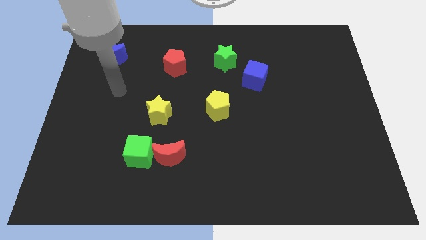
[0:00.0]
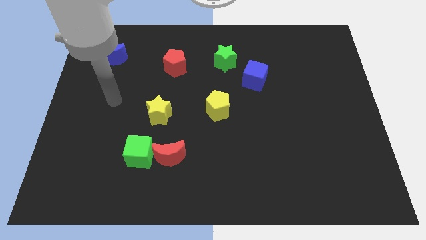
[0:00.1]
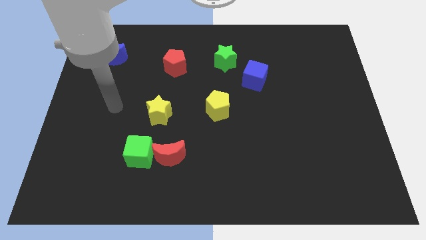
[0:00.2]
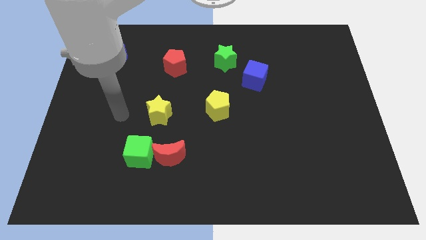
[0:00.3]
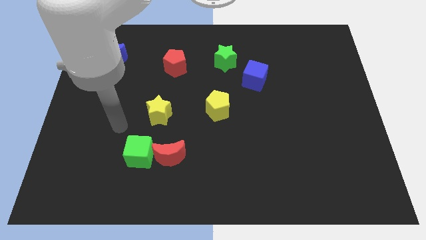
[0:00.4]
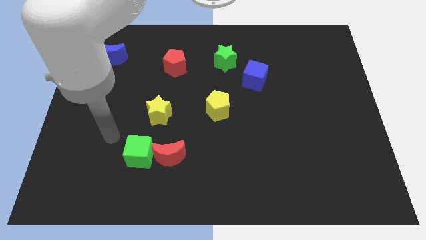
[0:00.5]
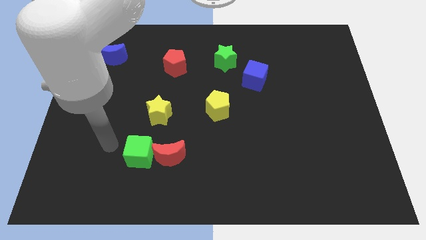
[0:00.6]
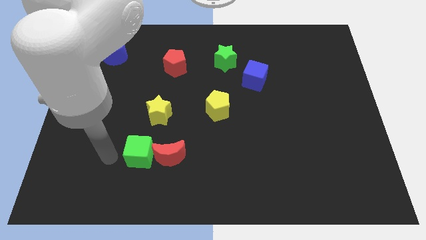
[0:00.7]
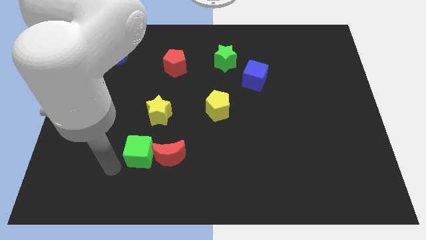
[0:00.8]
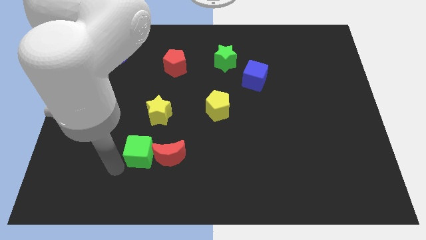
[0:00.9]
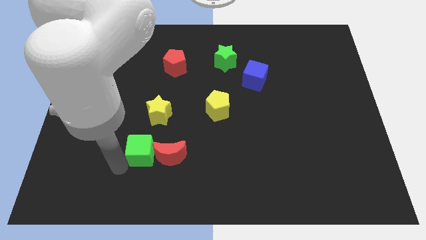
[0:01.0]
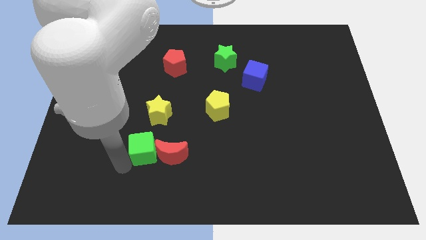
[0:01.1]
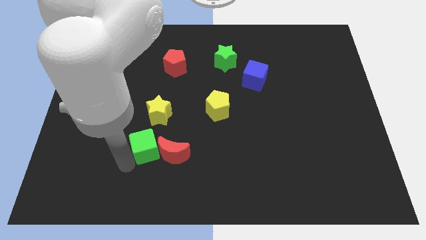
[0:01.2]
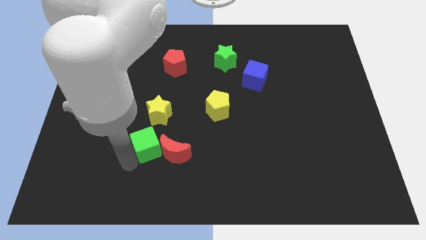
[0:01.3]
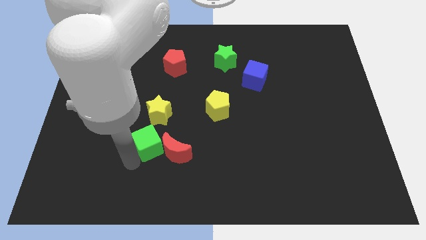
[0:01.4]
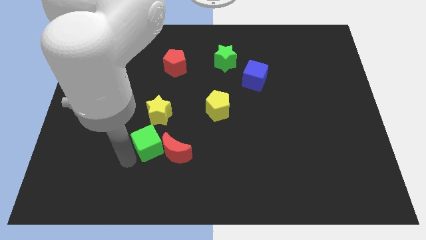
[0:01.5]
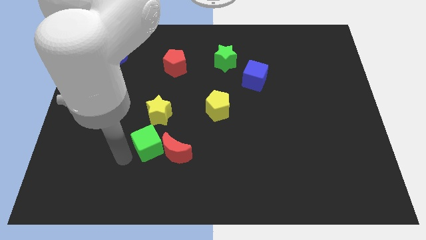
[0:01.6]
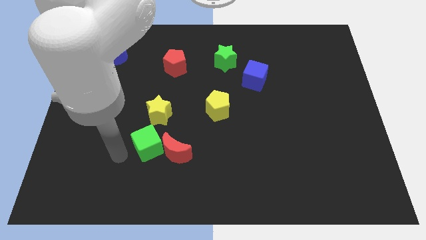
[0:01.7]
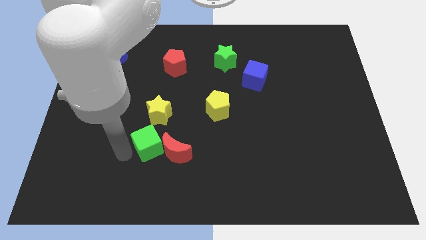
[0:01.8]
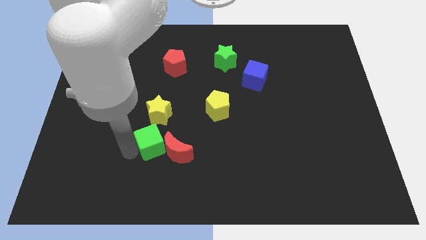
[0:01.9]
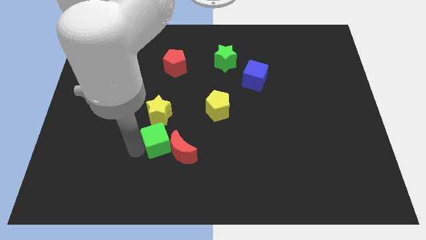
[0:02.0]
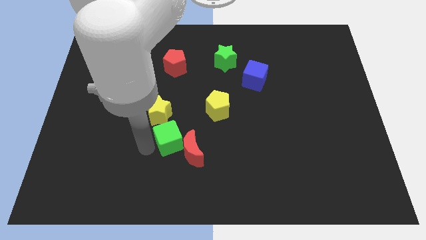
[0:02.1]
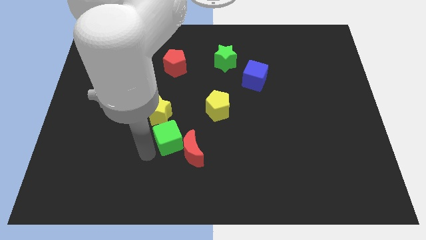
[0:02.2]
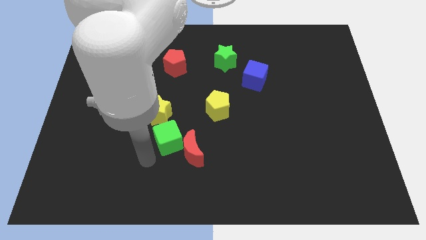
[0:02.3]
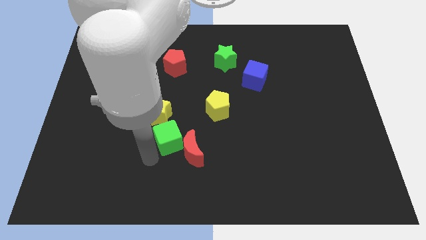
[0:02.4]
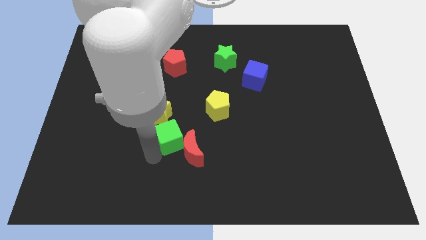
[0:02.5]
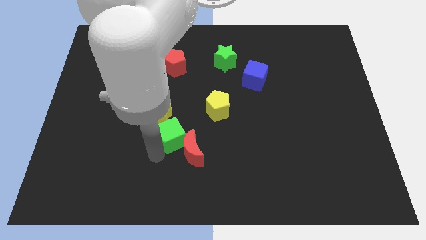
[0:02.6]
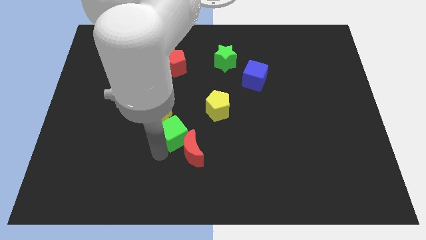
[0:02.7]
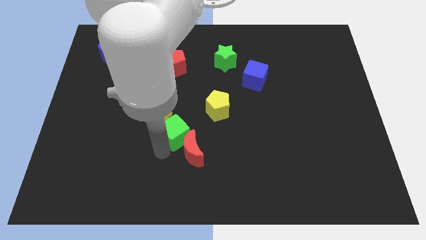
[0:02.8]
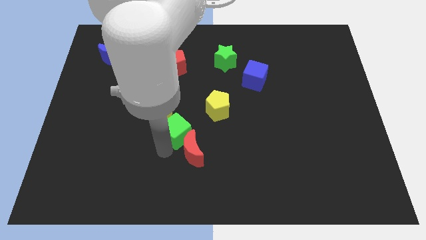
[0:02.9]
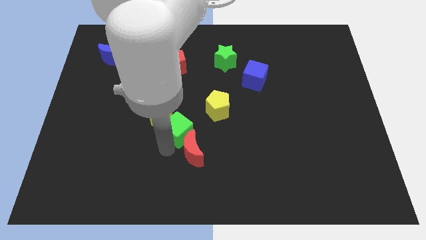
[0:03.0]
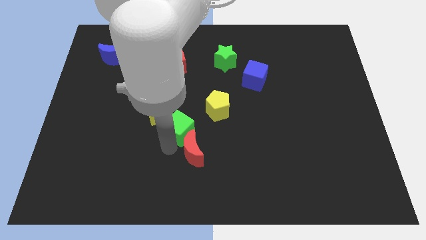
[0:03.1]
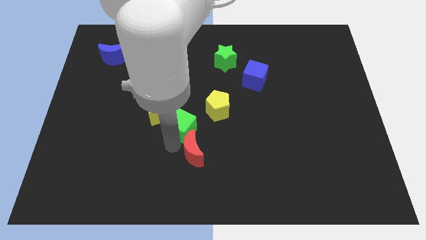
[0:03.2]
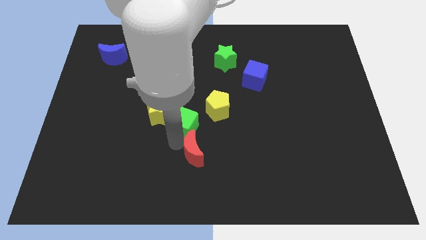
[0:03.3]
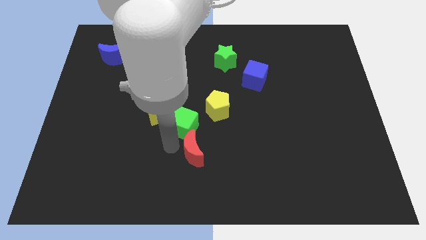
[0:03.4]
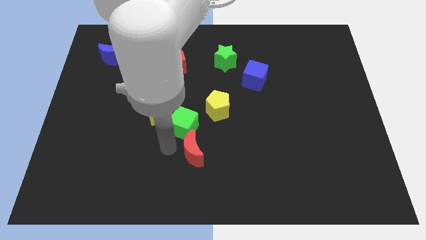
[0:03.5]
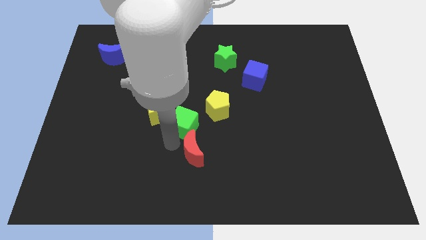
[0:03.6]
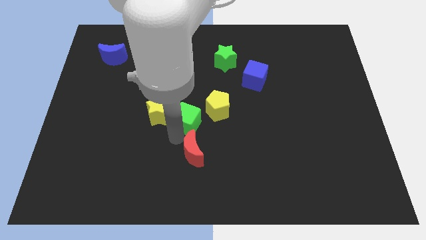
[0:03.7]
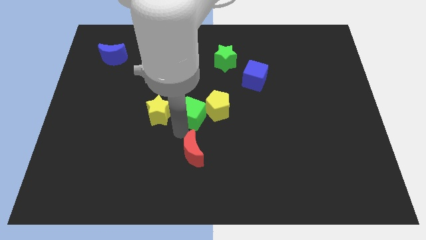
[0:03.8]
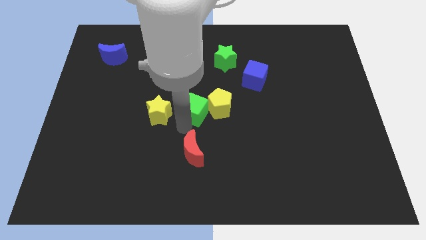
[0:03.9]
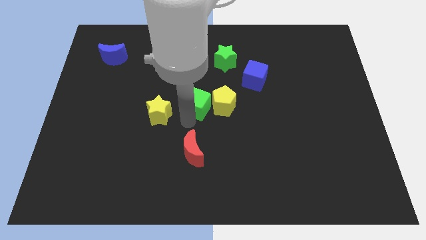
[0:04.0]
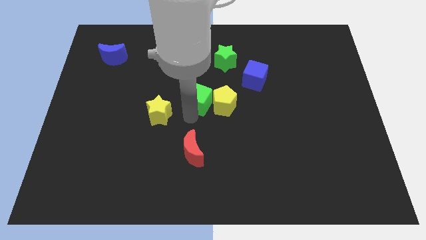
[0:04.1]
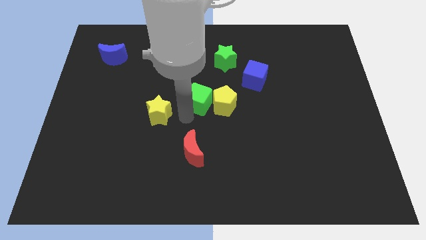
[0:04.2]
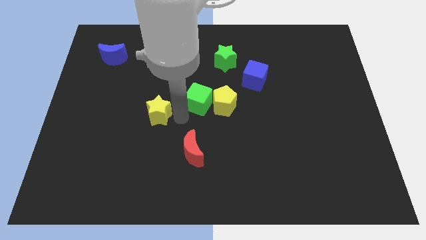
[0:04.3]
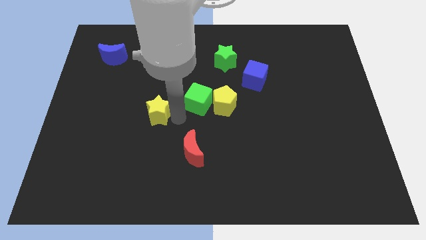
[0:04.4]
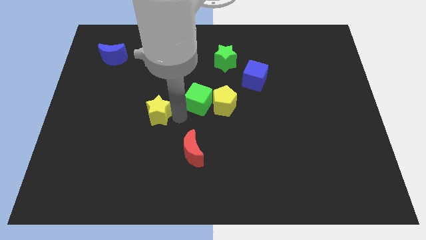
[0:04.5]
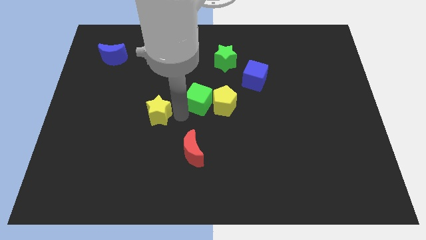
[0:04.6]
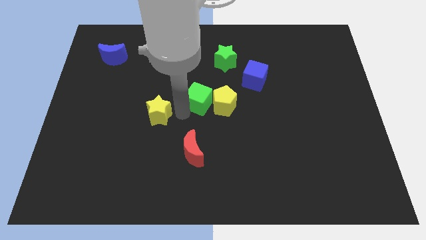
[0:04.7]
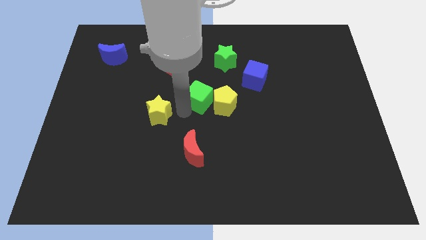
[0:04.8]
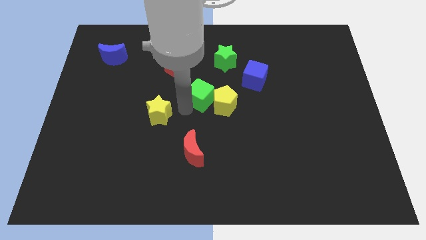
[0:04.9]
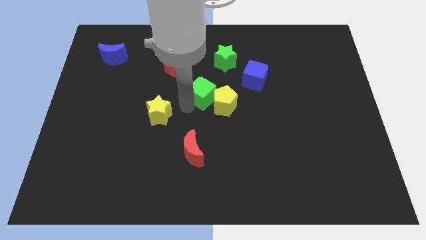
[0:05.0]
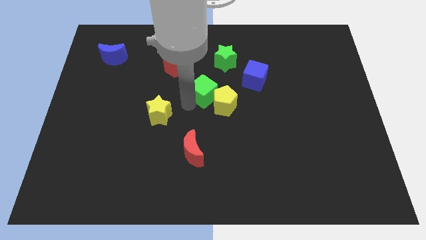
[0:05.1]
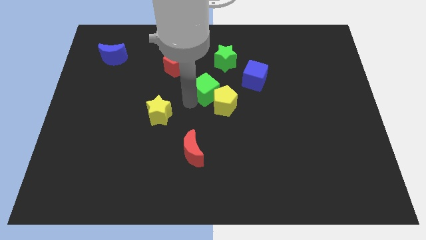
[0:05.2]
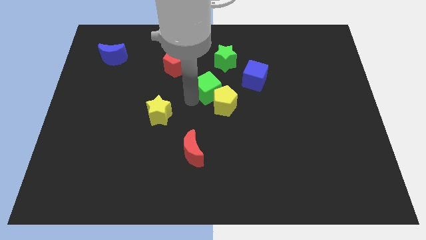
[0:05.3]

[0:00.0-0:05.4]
push the green cube to the bottom side of the green star

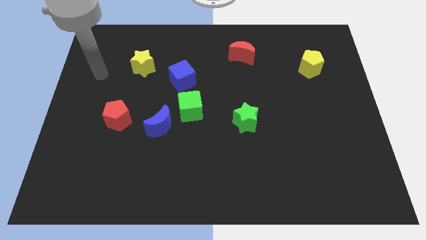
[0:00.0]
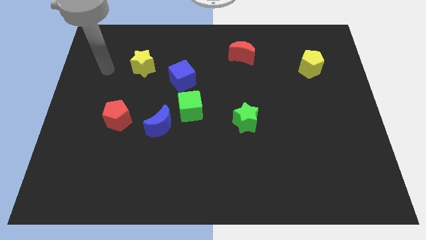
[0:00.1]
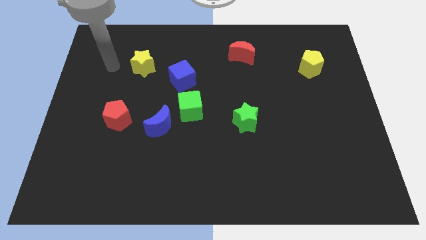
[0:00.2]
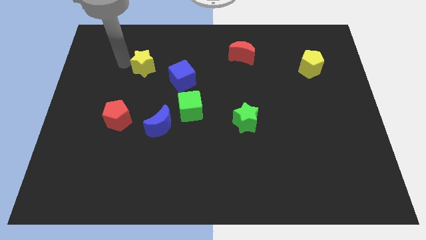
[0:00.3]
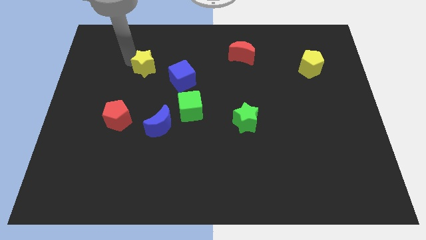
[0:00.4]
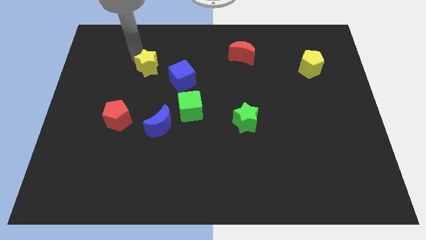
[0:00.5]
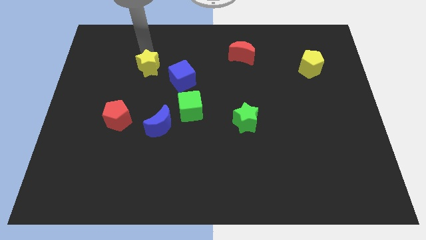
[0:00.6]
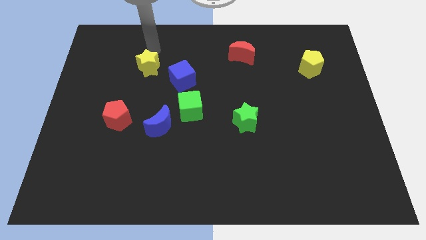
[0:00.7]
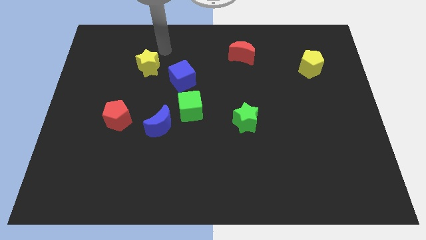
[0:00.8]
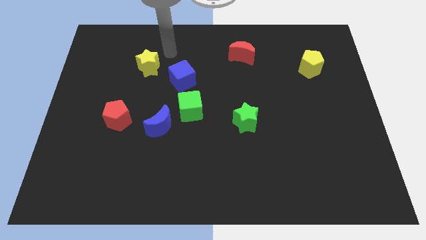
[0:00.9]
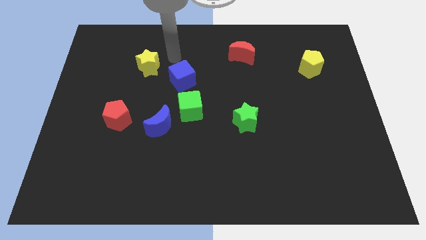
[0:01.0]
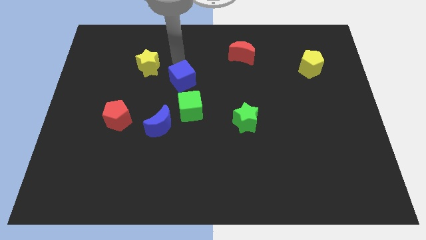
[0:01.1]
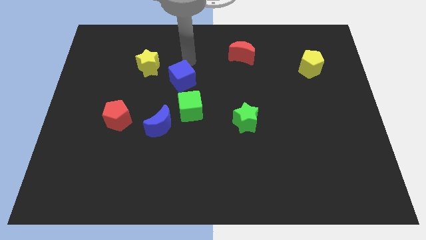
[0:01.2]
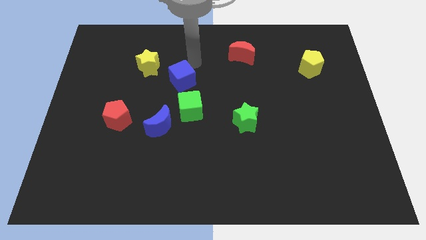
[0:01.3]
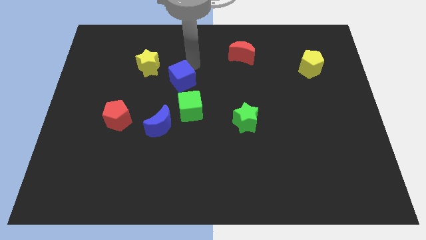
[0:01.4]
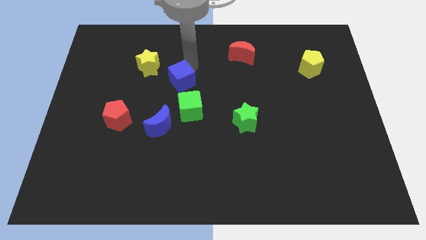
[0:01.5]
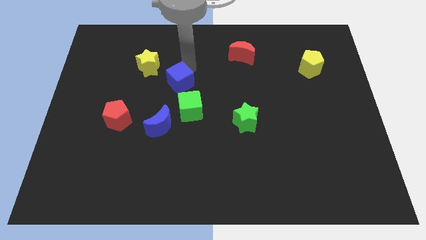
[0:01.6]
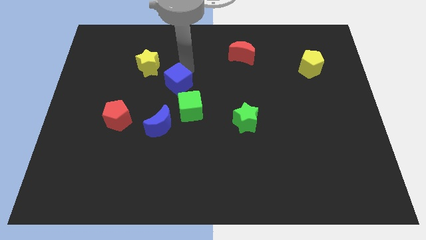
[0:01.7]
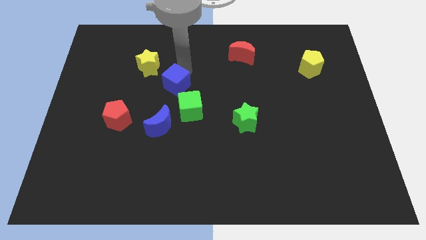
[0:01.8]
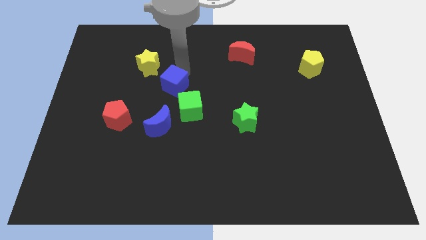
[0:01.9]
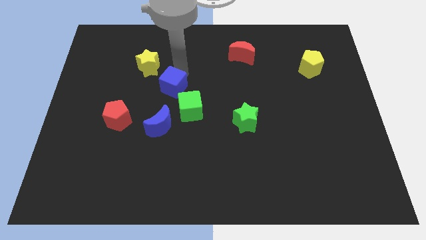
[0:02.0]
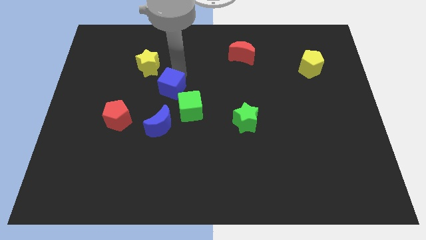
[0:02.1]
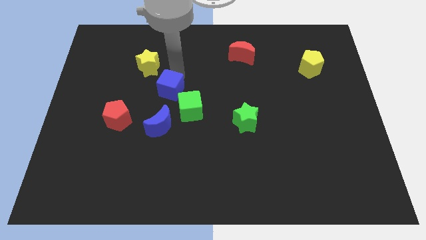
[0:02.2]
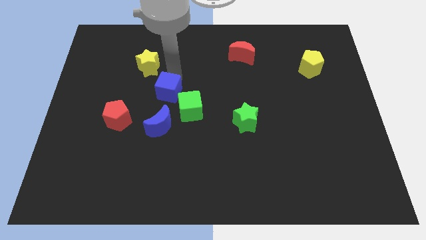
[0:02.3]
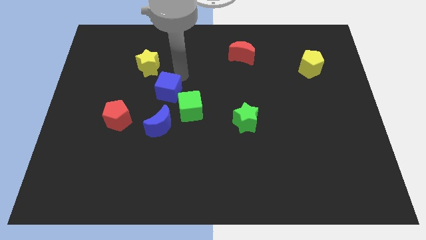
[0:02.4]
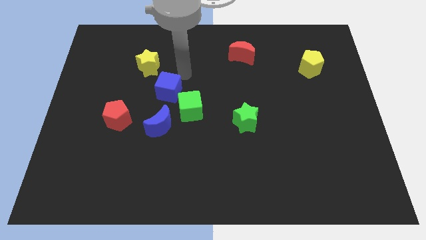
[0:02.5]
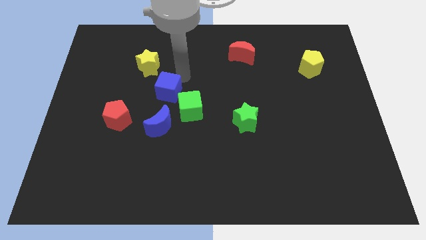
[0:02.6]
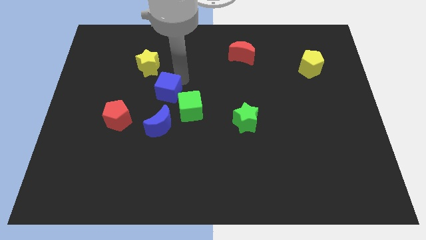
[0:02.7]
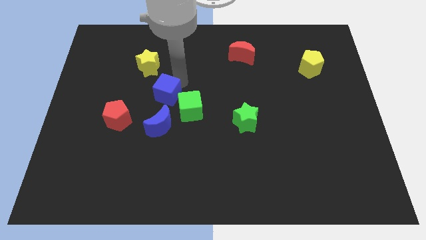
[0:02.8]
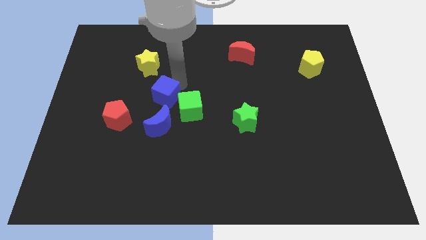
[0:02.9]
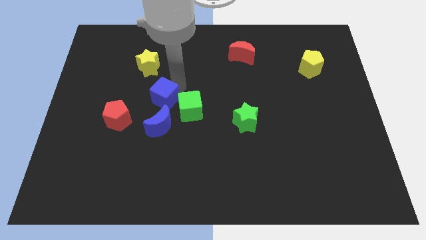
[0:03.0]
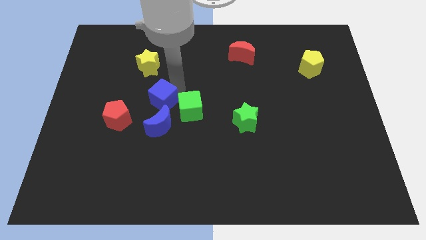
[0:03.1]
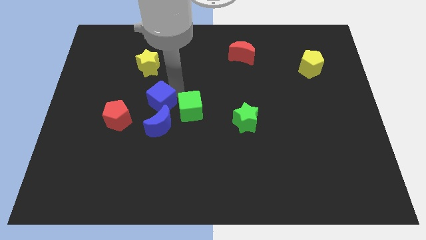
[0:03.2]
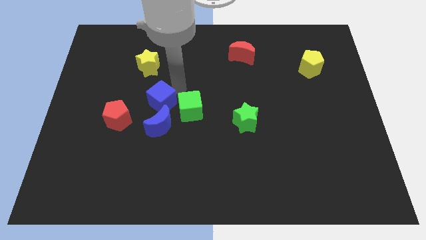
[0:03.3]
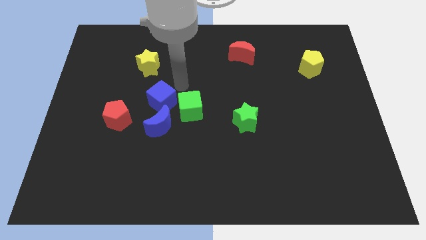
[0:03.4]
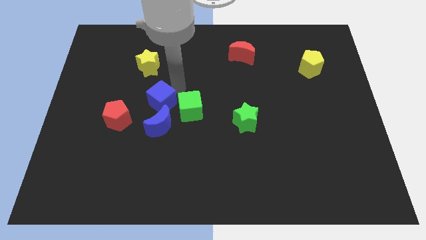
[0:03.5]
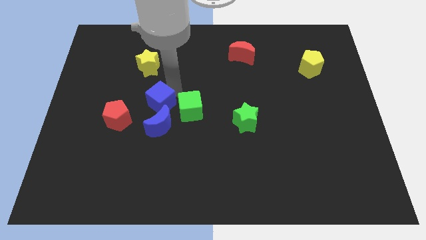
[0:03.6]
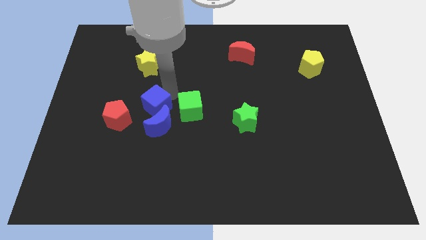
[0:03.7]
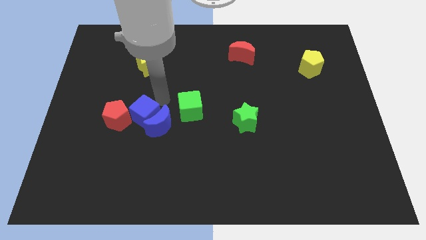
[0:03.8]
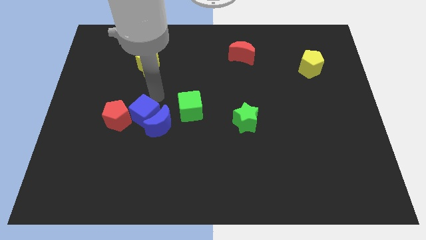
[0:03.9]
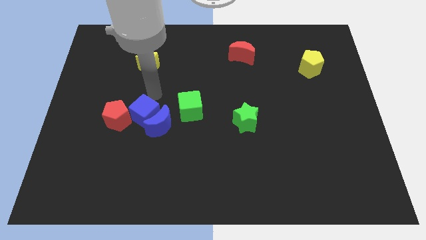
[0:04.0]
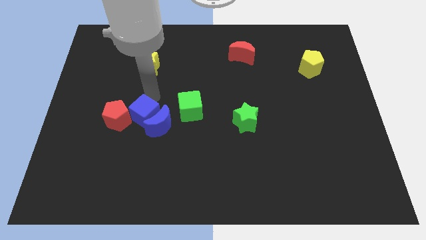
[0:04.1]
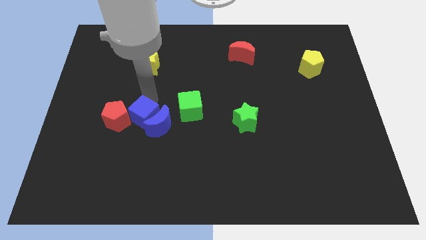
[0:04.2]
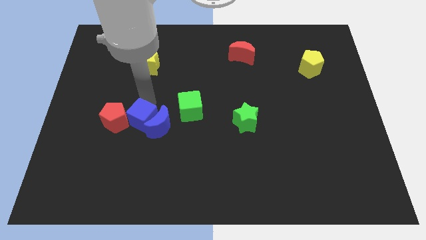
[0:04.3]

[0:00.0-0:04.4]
move the blue cube to the bottom left side of the blue moon
